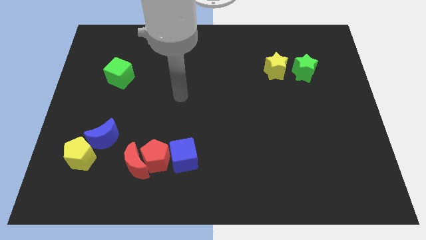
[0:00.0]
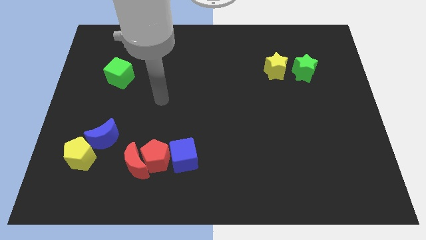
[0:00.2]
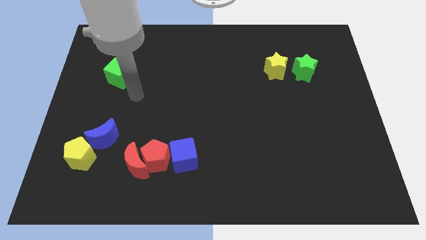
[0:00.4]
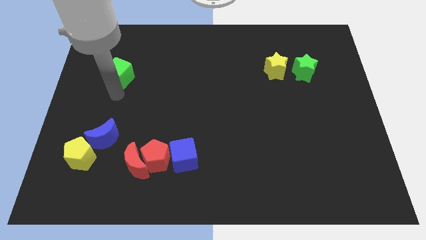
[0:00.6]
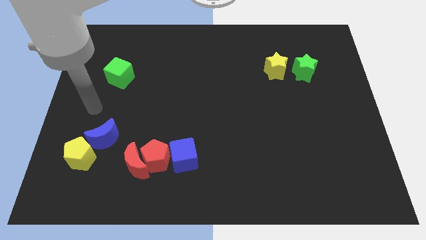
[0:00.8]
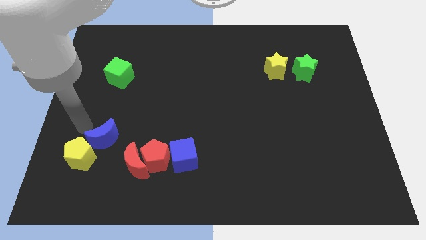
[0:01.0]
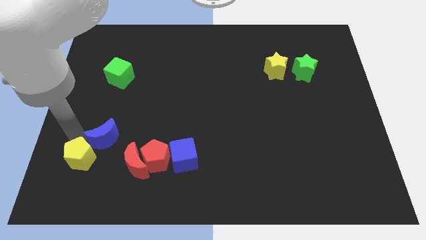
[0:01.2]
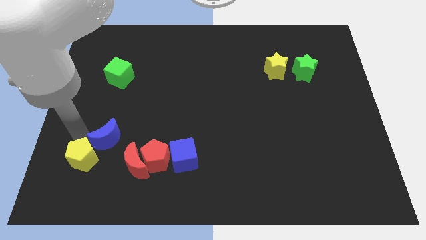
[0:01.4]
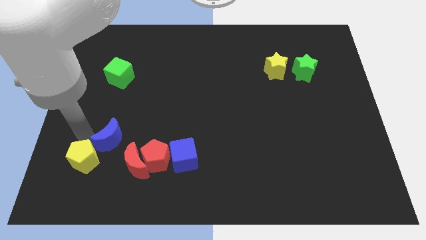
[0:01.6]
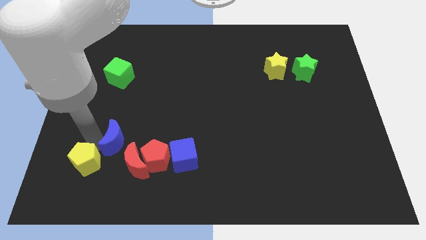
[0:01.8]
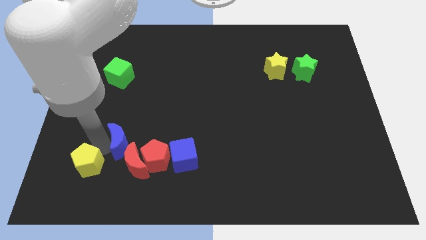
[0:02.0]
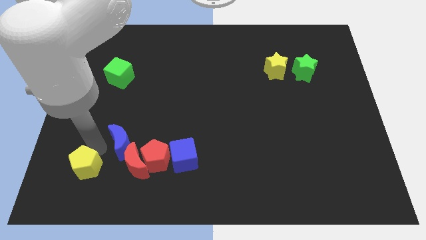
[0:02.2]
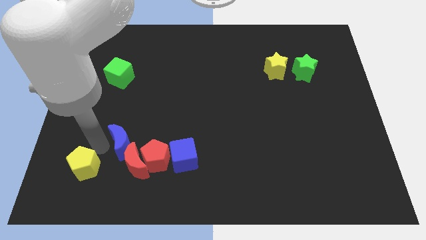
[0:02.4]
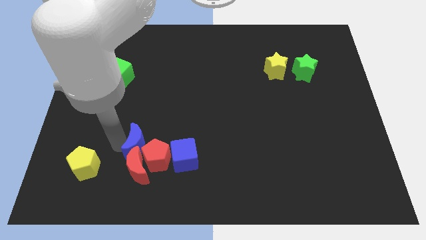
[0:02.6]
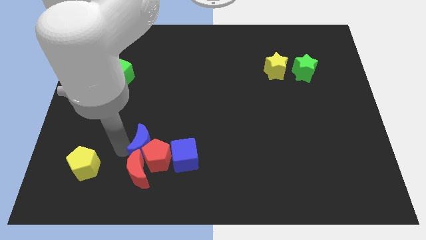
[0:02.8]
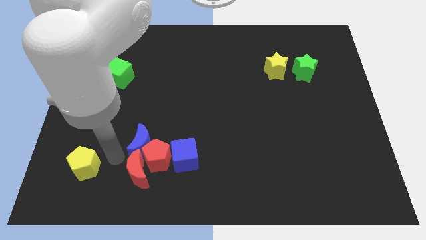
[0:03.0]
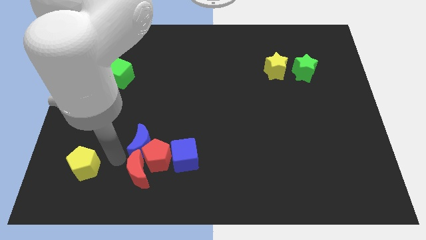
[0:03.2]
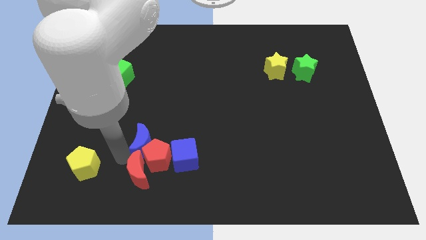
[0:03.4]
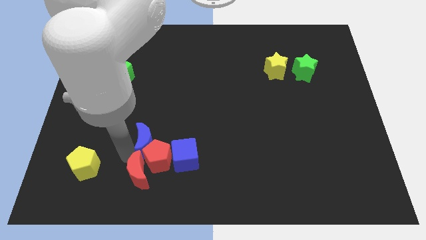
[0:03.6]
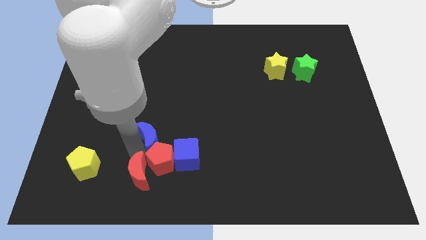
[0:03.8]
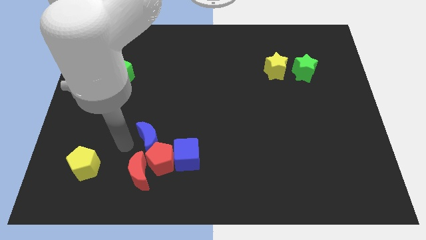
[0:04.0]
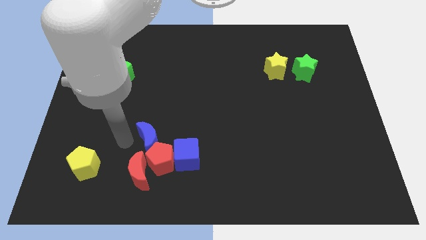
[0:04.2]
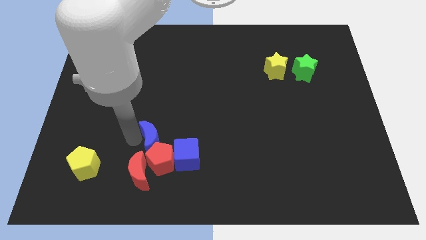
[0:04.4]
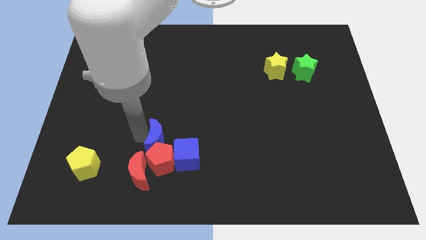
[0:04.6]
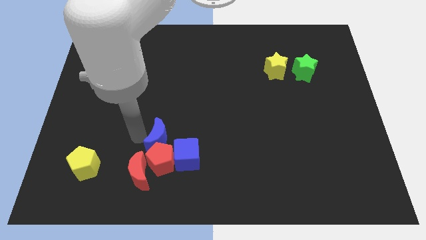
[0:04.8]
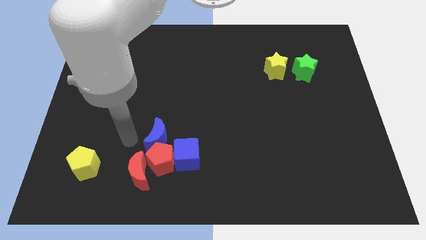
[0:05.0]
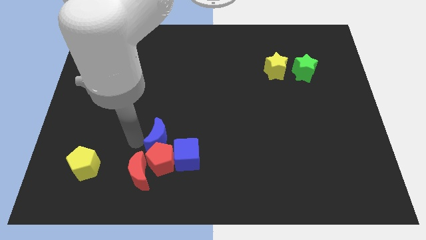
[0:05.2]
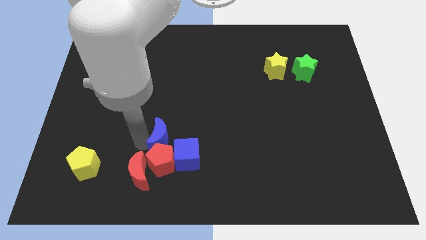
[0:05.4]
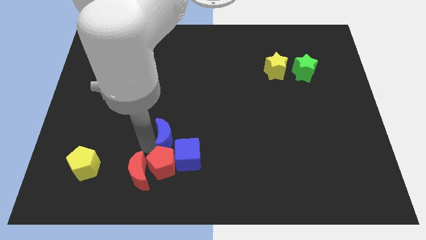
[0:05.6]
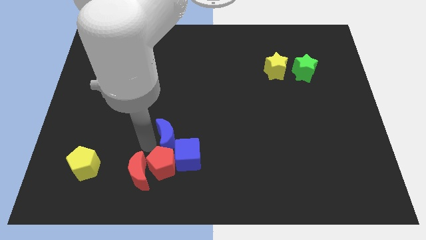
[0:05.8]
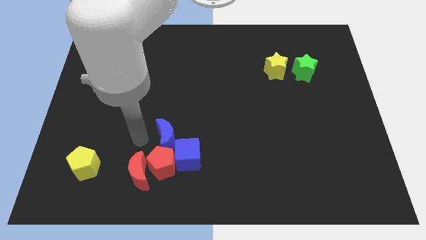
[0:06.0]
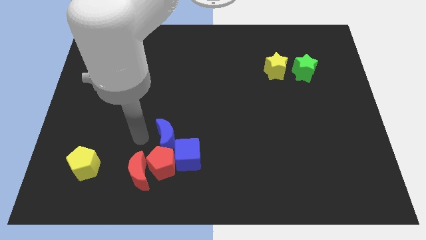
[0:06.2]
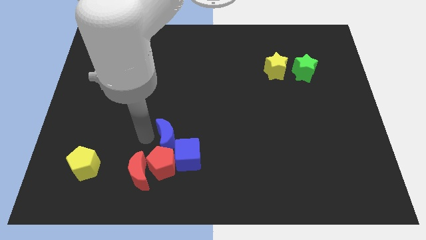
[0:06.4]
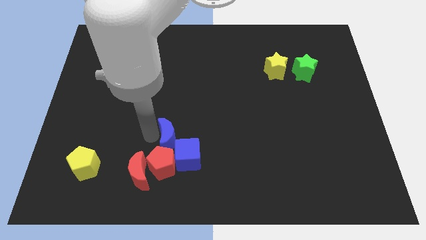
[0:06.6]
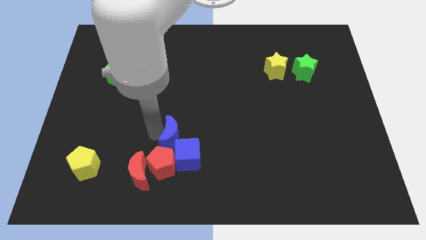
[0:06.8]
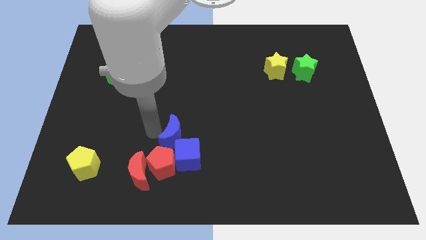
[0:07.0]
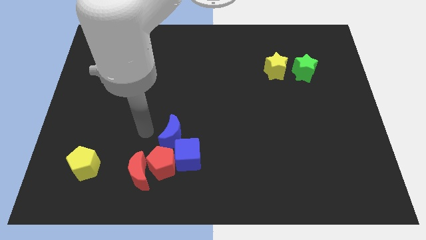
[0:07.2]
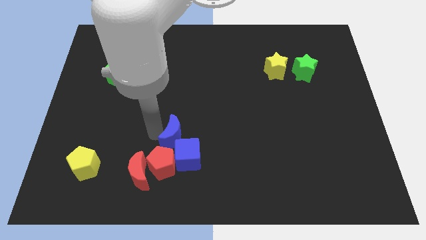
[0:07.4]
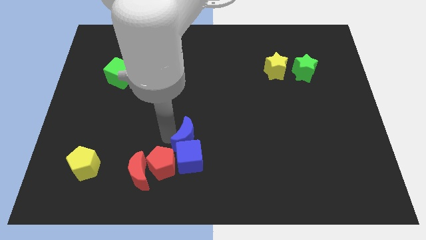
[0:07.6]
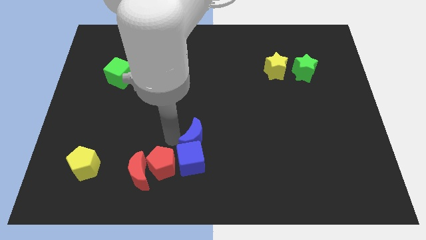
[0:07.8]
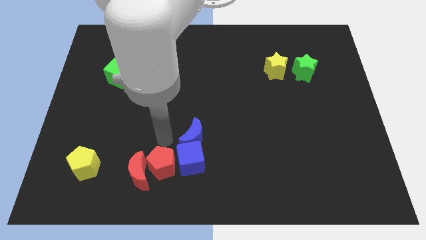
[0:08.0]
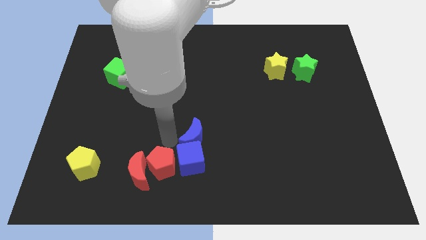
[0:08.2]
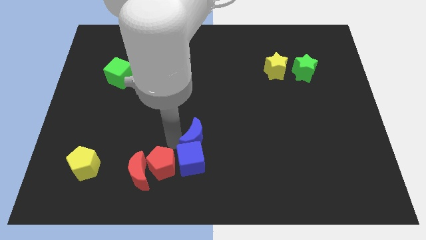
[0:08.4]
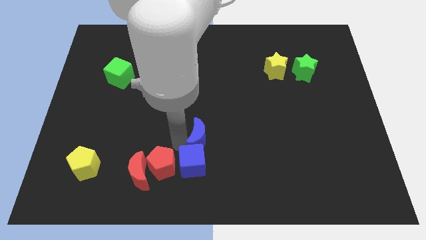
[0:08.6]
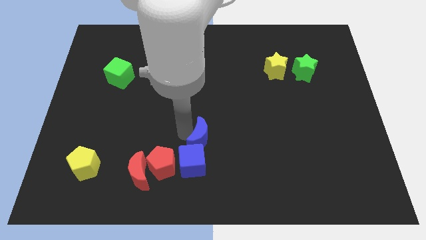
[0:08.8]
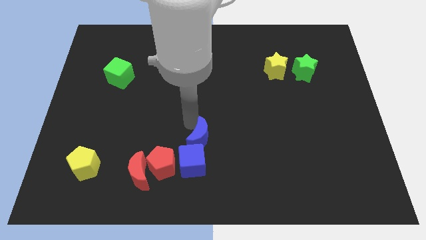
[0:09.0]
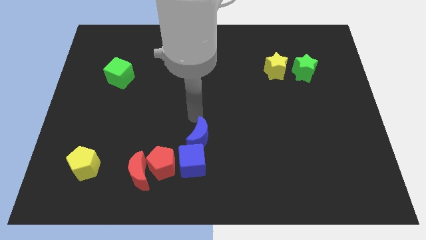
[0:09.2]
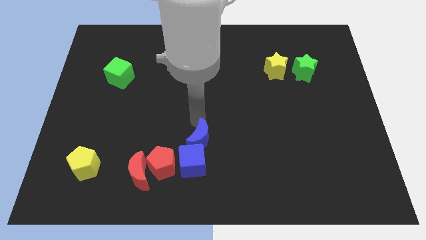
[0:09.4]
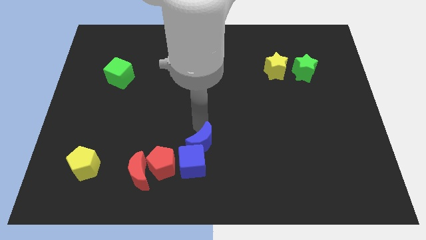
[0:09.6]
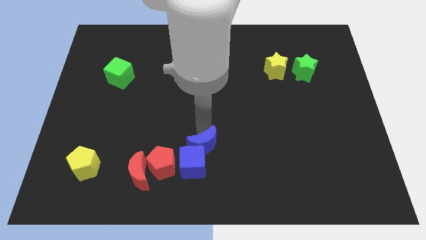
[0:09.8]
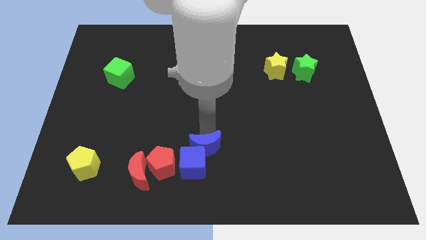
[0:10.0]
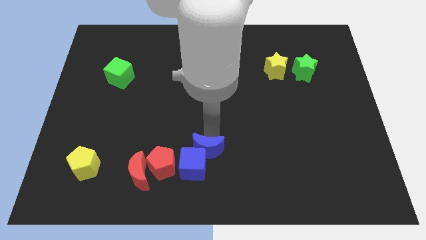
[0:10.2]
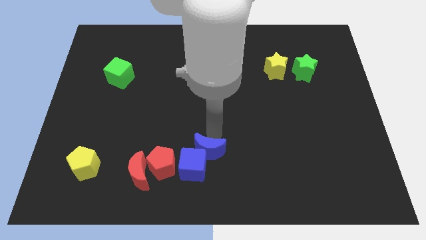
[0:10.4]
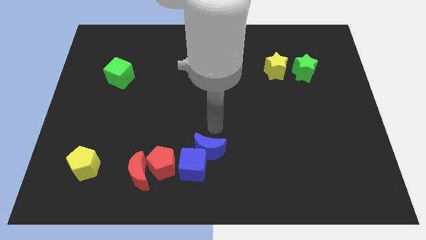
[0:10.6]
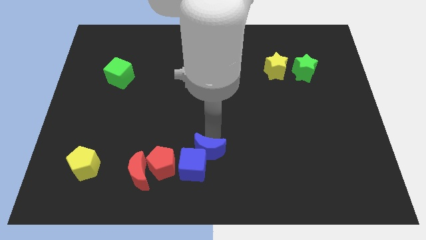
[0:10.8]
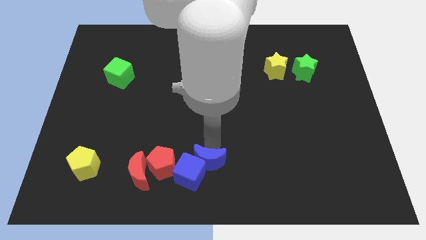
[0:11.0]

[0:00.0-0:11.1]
push the blue moon to the right of the red moon
